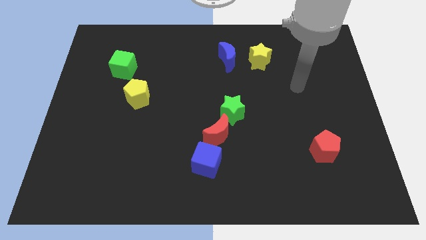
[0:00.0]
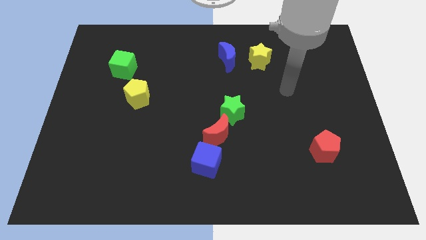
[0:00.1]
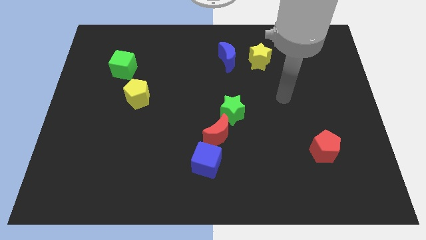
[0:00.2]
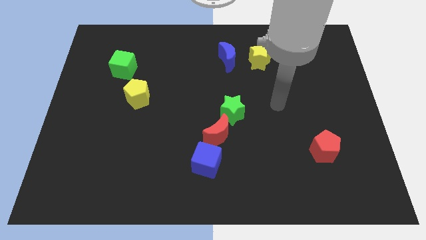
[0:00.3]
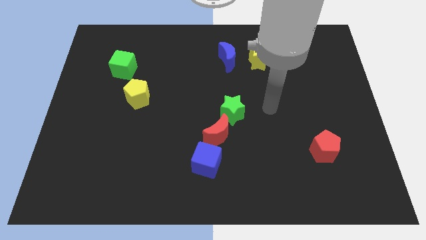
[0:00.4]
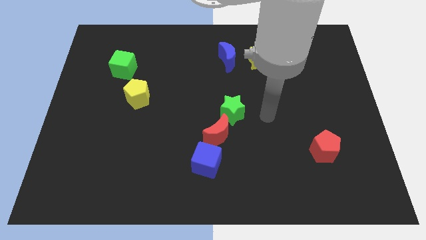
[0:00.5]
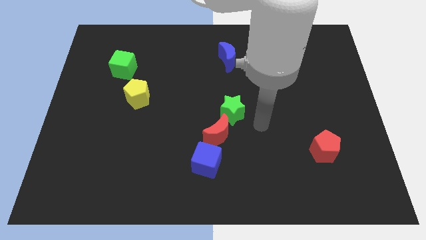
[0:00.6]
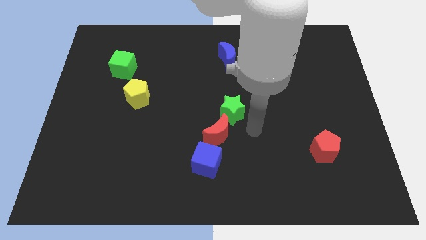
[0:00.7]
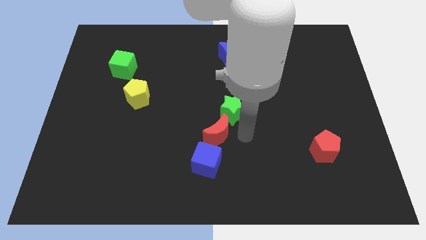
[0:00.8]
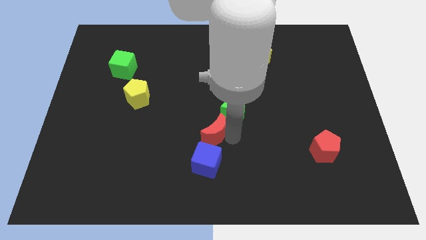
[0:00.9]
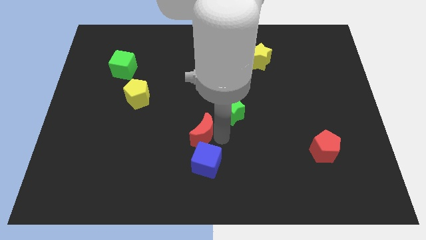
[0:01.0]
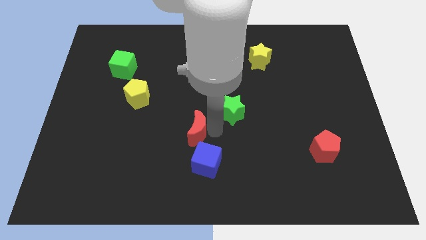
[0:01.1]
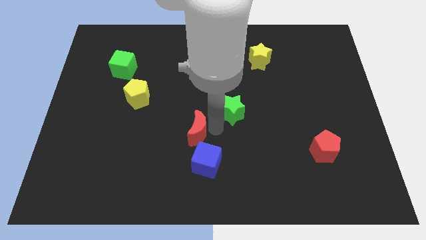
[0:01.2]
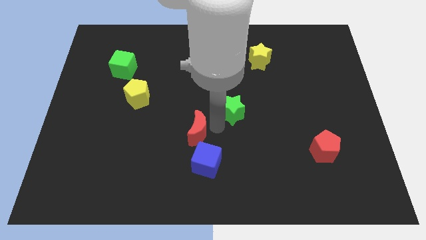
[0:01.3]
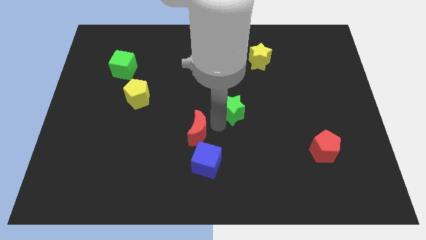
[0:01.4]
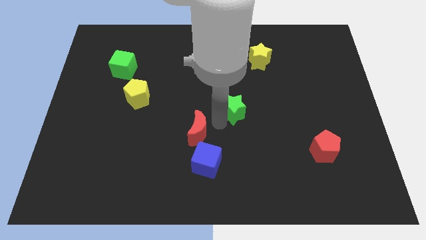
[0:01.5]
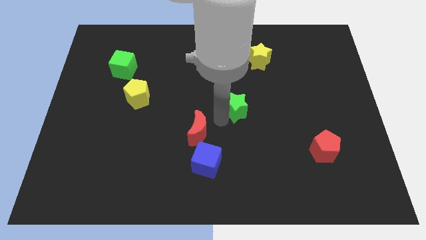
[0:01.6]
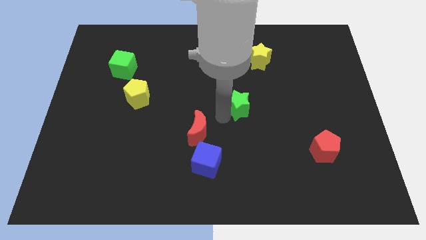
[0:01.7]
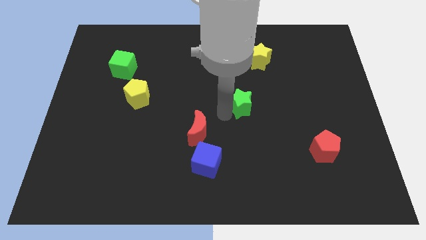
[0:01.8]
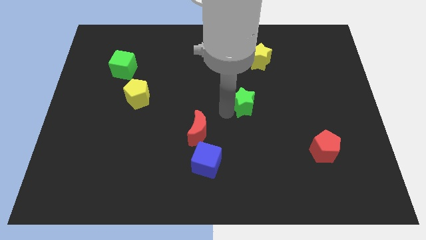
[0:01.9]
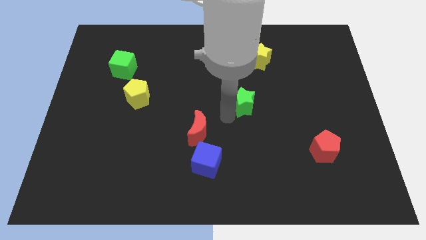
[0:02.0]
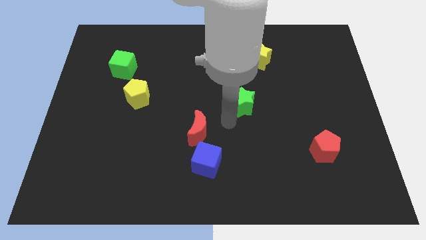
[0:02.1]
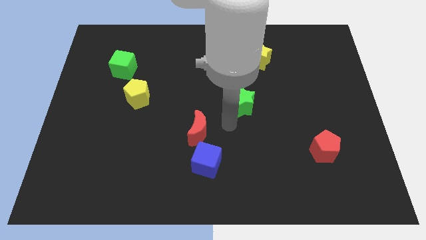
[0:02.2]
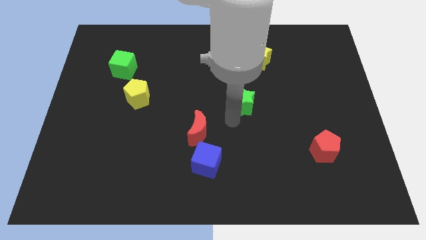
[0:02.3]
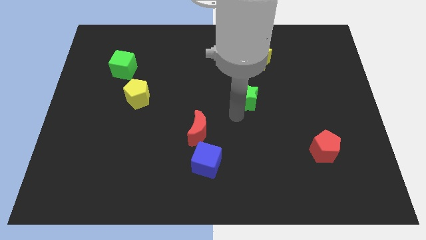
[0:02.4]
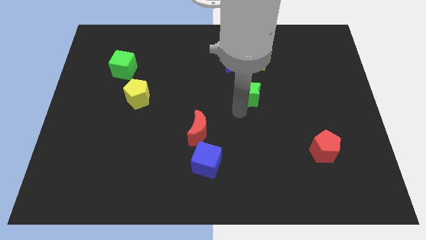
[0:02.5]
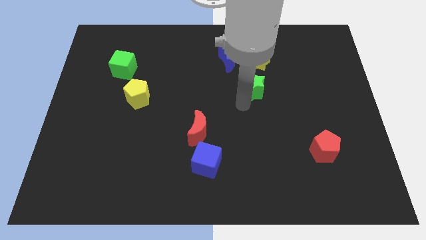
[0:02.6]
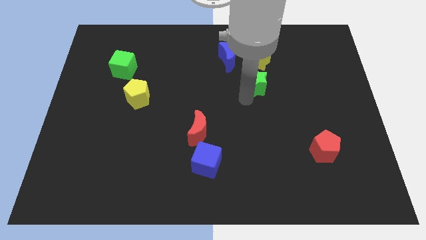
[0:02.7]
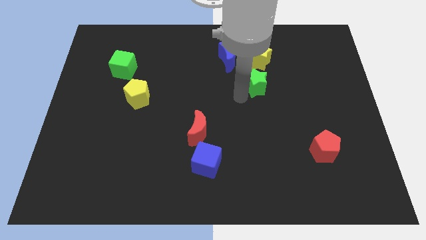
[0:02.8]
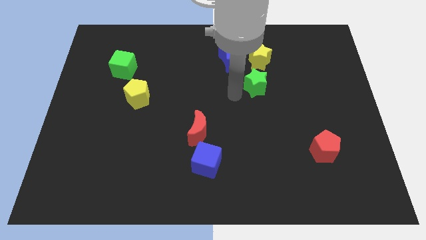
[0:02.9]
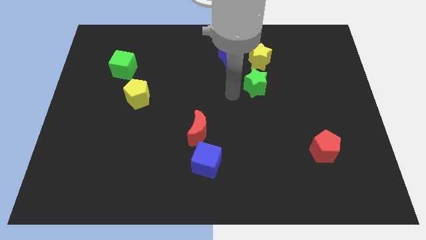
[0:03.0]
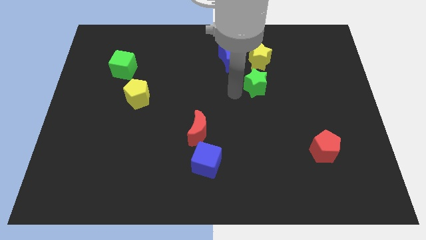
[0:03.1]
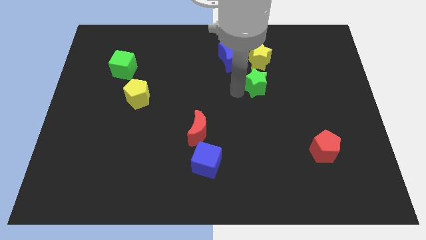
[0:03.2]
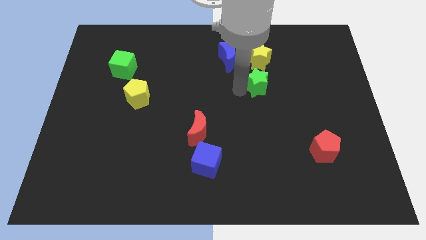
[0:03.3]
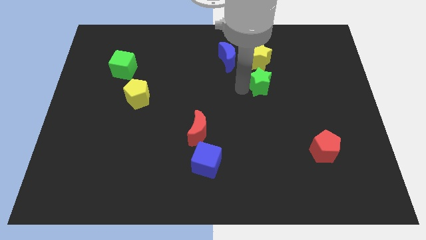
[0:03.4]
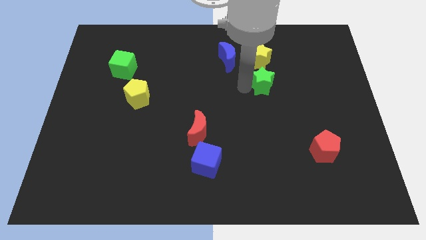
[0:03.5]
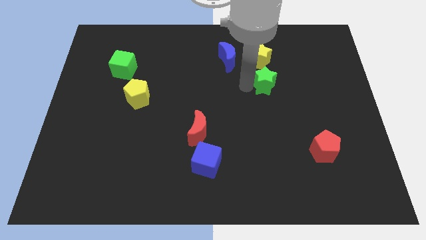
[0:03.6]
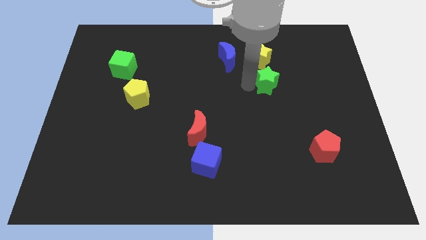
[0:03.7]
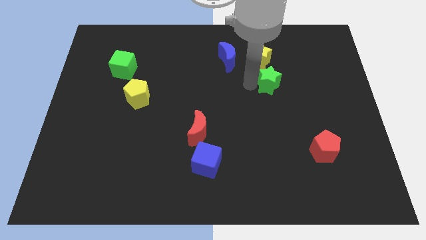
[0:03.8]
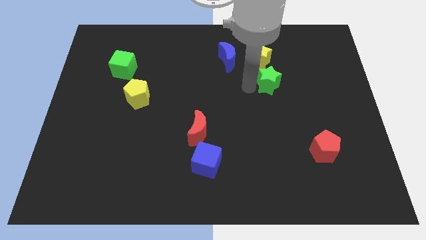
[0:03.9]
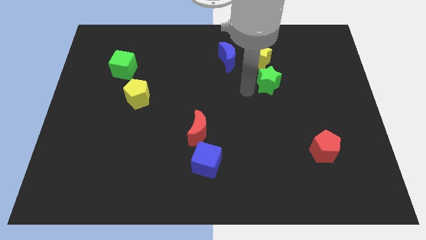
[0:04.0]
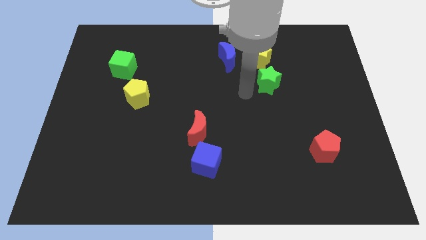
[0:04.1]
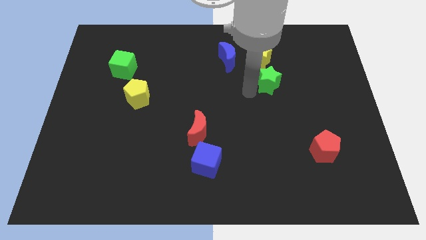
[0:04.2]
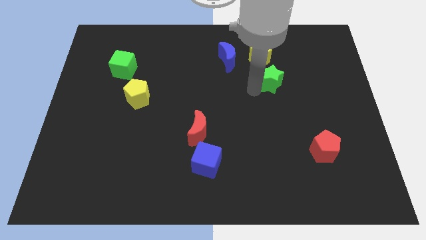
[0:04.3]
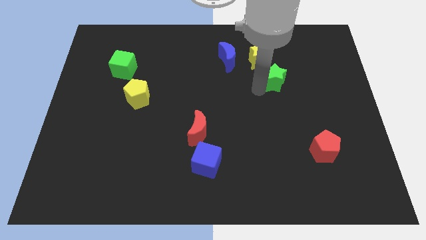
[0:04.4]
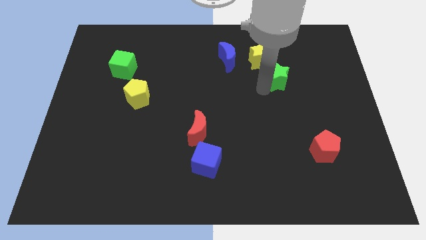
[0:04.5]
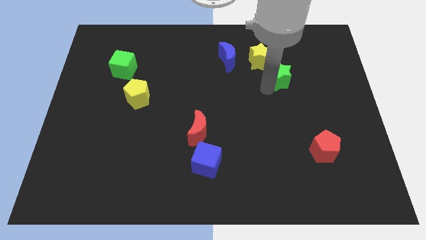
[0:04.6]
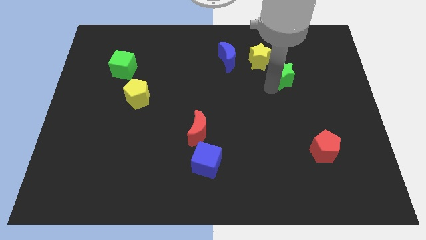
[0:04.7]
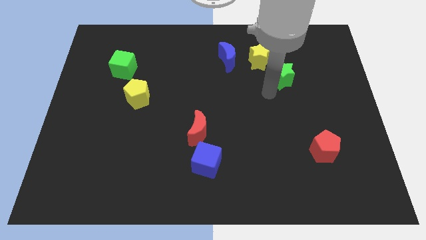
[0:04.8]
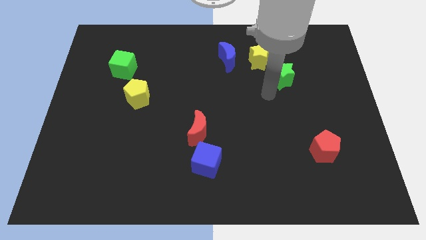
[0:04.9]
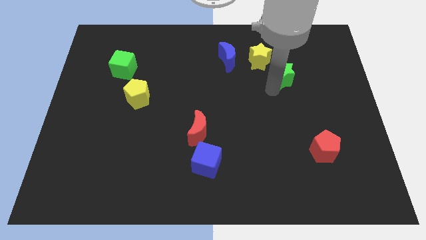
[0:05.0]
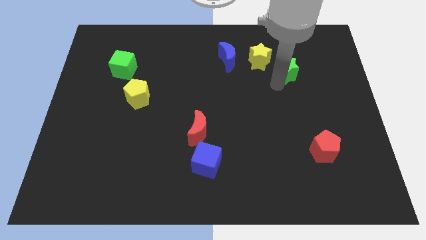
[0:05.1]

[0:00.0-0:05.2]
put the green star just right of the yellow star

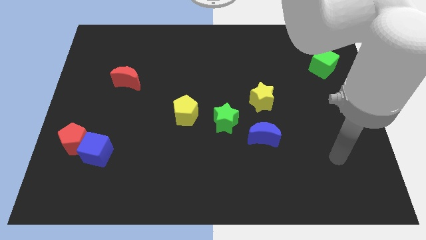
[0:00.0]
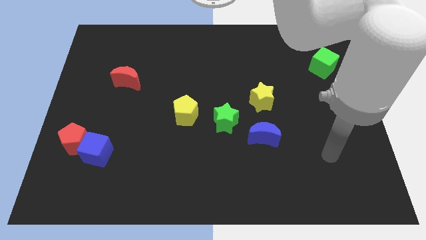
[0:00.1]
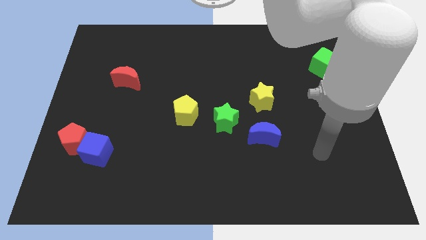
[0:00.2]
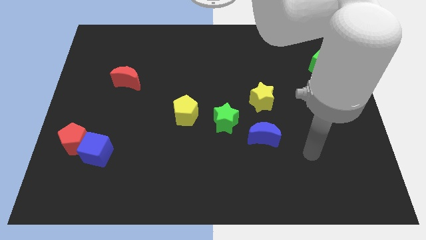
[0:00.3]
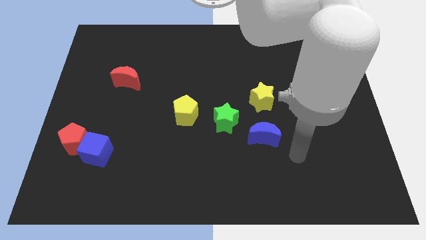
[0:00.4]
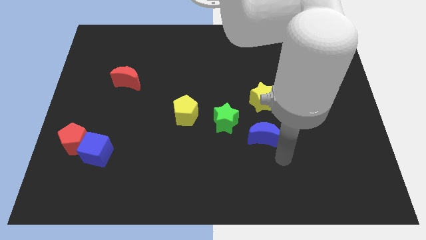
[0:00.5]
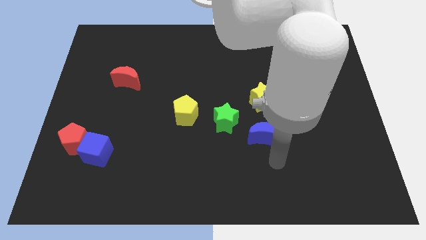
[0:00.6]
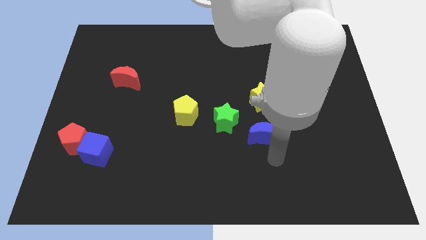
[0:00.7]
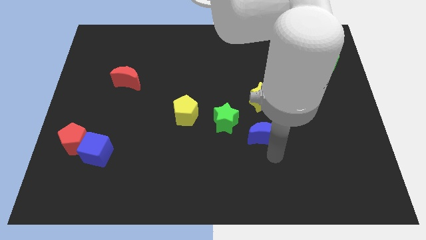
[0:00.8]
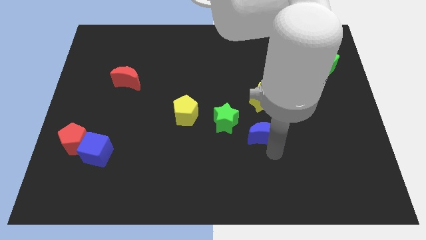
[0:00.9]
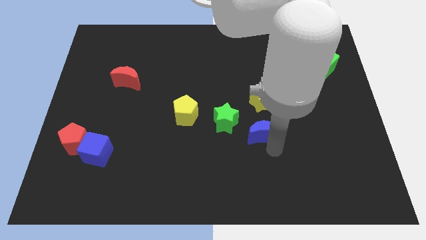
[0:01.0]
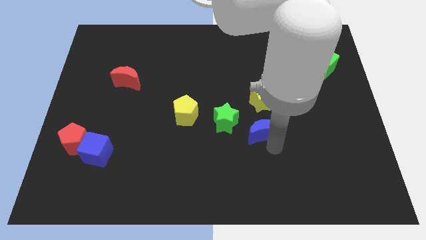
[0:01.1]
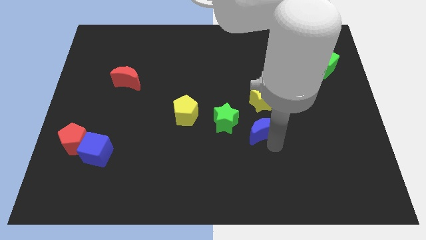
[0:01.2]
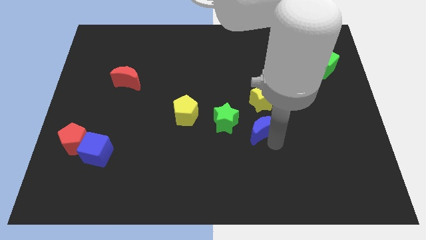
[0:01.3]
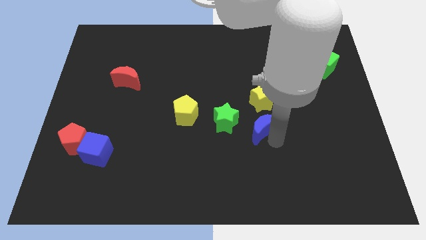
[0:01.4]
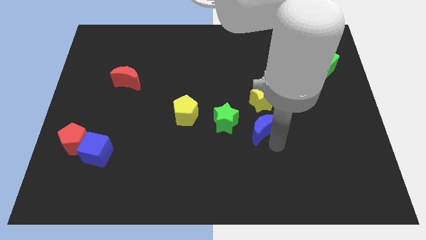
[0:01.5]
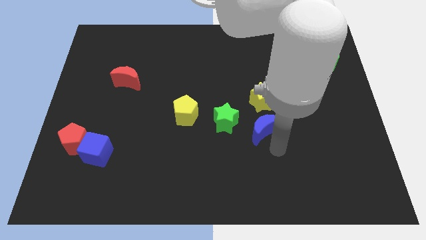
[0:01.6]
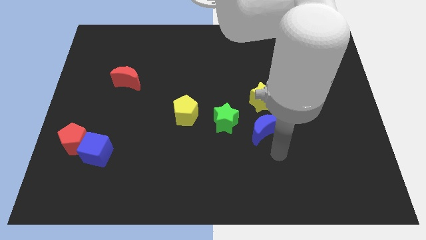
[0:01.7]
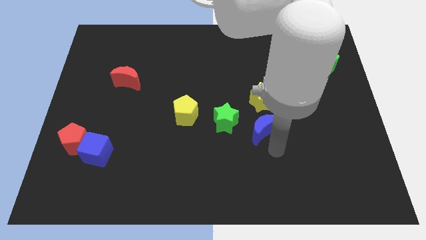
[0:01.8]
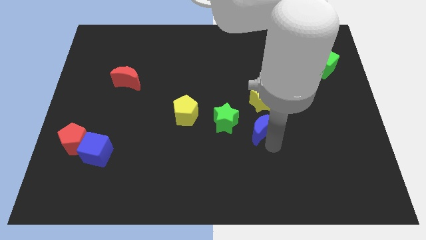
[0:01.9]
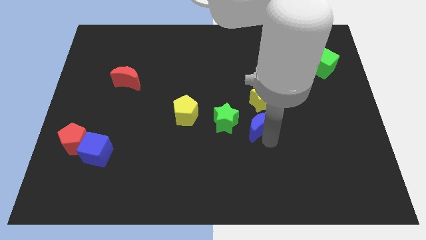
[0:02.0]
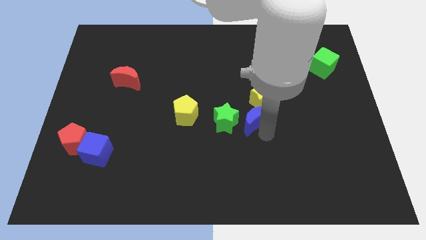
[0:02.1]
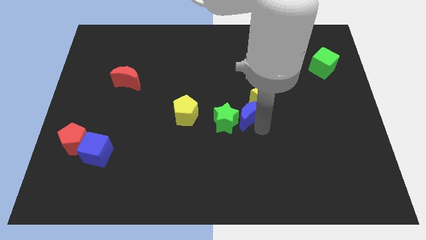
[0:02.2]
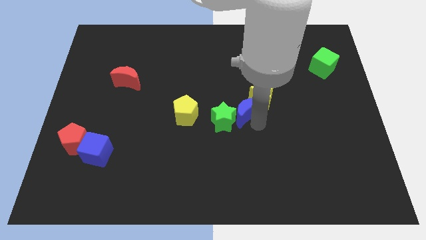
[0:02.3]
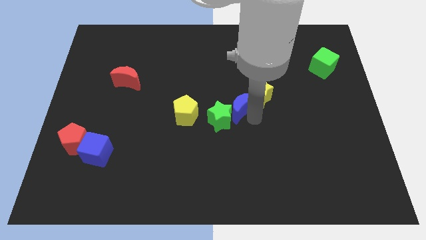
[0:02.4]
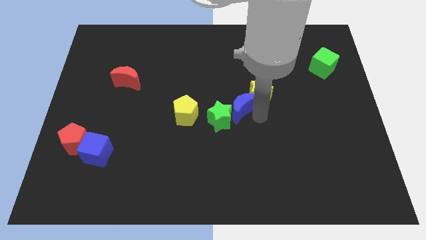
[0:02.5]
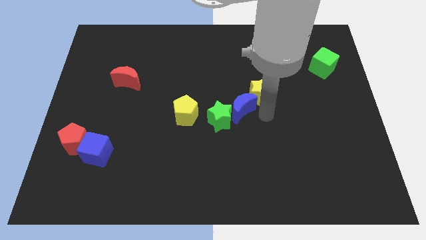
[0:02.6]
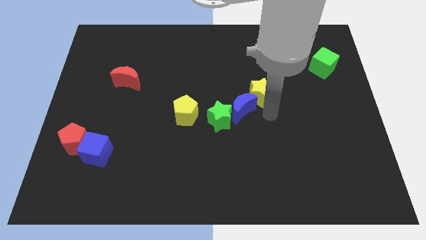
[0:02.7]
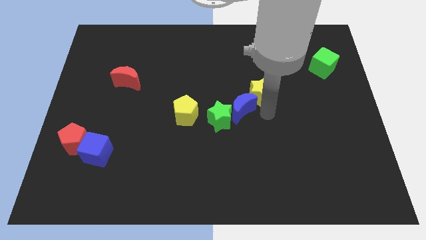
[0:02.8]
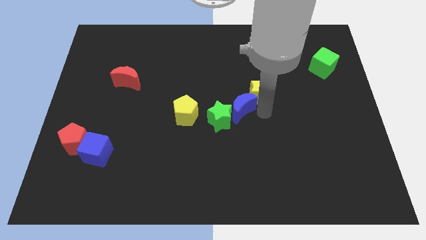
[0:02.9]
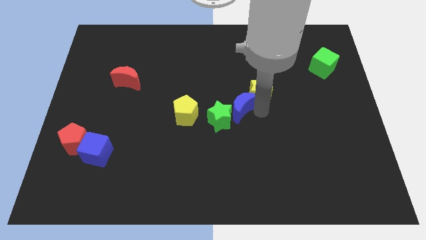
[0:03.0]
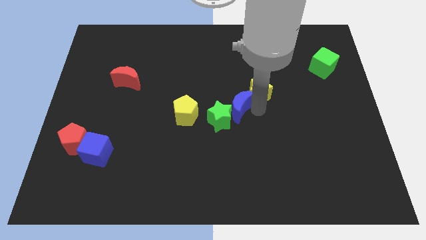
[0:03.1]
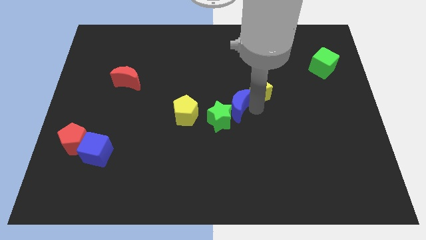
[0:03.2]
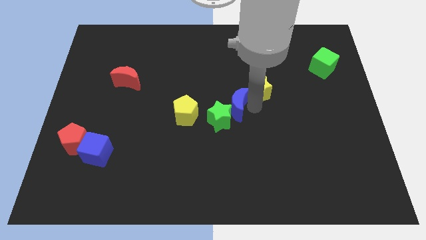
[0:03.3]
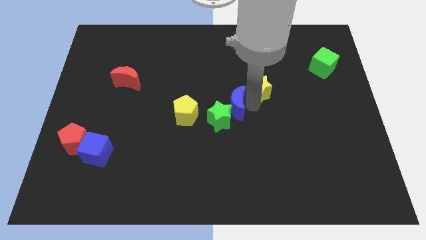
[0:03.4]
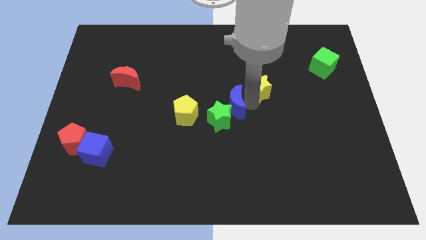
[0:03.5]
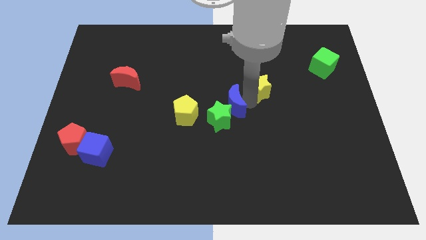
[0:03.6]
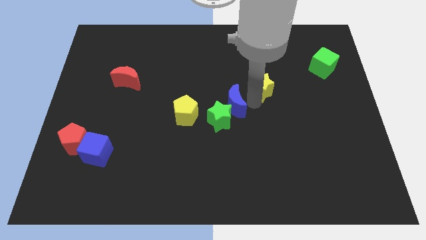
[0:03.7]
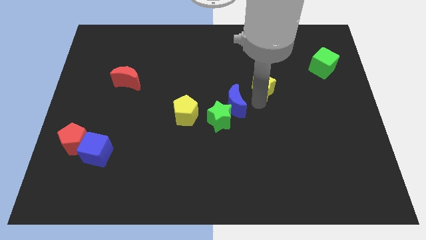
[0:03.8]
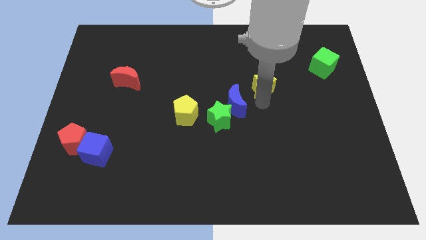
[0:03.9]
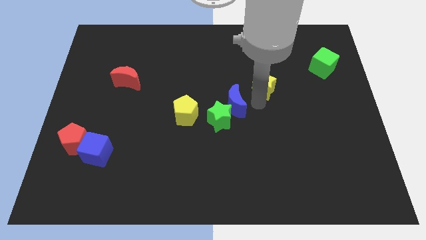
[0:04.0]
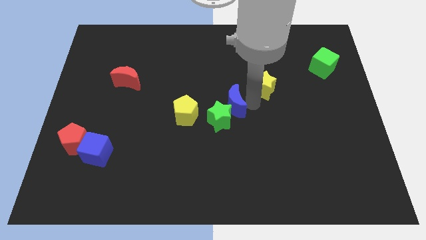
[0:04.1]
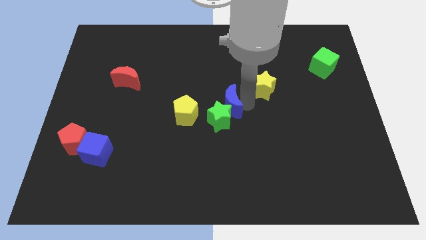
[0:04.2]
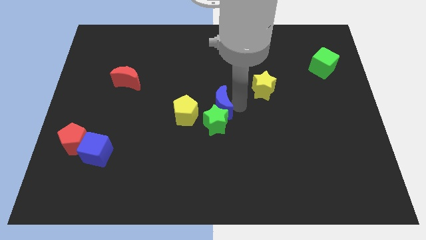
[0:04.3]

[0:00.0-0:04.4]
slide the blue moon to the top left of the green star
